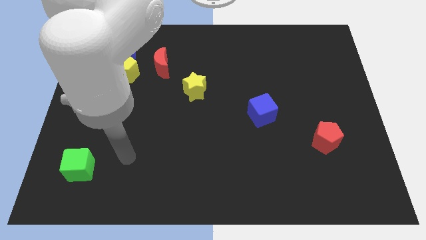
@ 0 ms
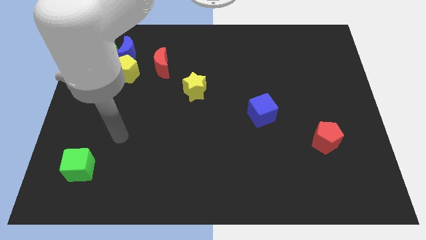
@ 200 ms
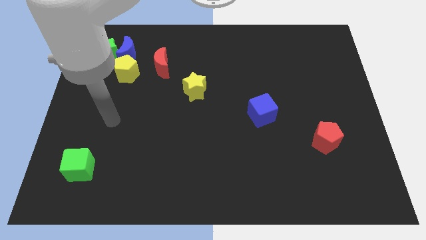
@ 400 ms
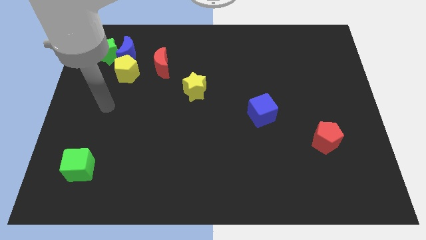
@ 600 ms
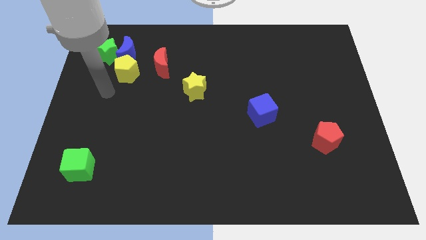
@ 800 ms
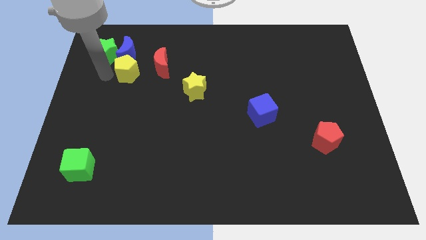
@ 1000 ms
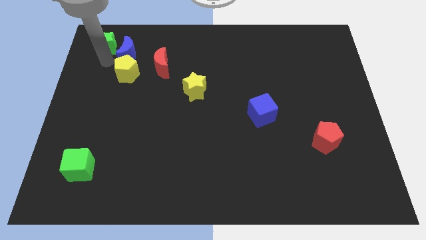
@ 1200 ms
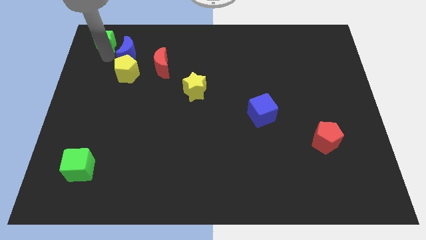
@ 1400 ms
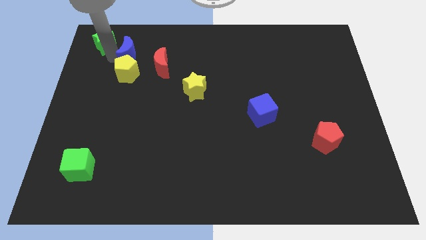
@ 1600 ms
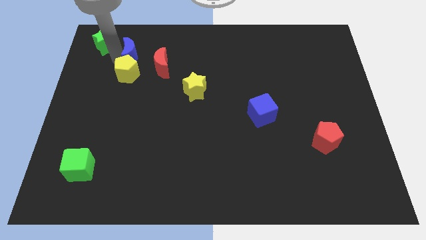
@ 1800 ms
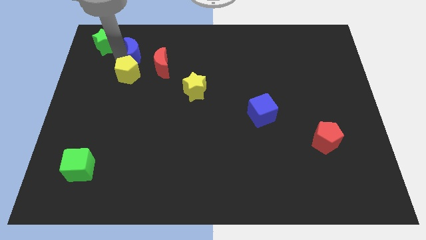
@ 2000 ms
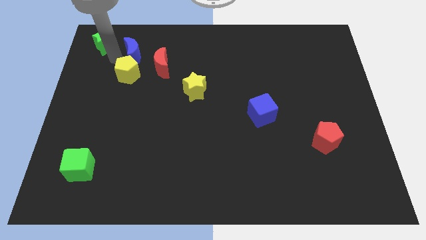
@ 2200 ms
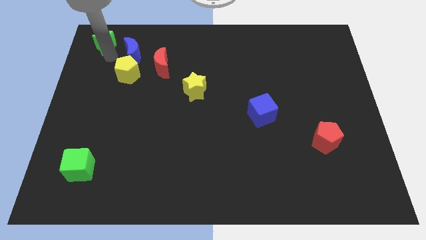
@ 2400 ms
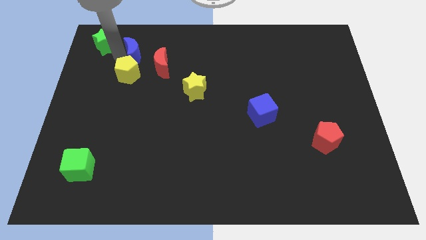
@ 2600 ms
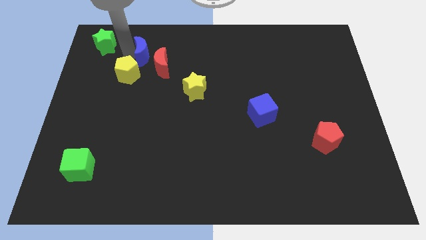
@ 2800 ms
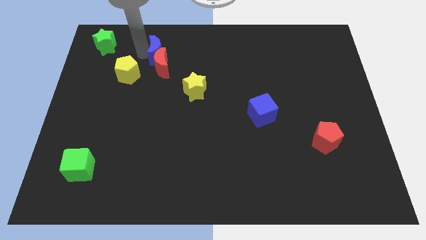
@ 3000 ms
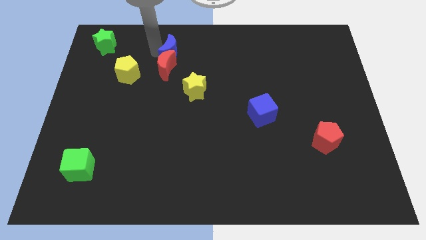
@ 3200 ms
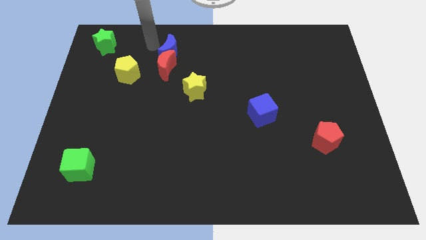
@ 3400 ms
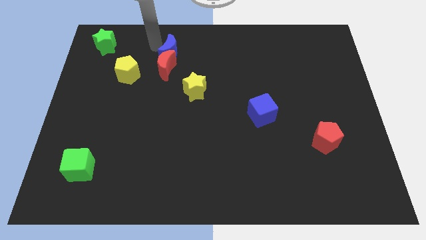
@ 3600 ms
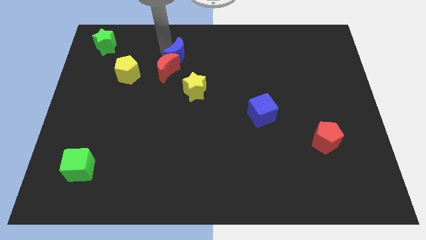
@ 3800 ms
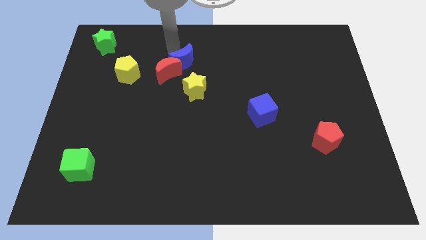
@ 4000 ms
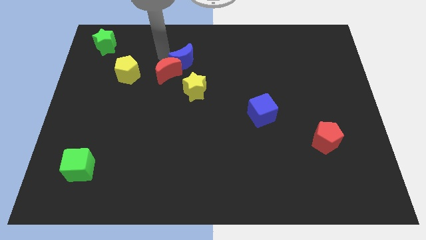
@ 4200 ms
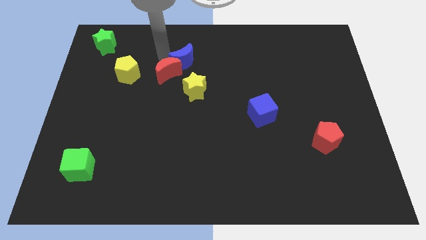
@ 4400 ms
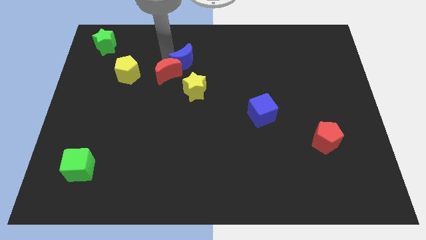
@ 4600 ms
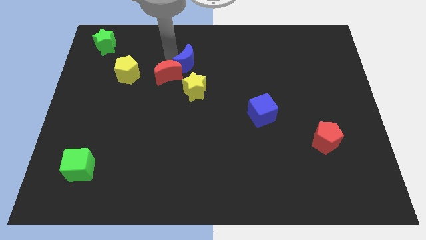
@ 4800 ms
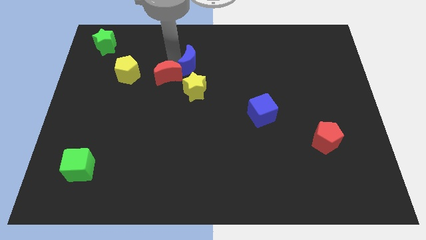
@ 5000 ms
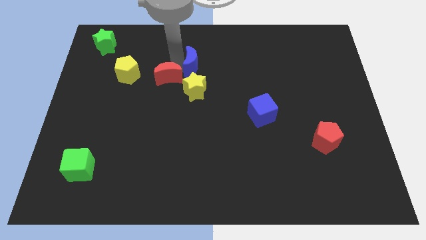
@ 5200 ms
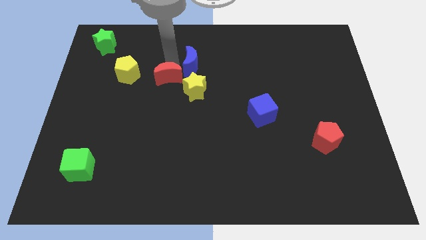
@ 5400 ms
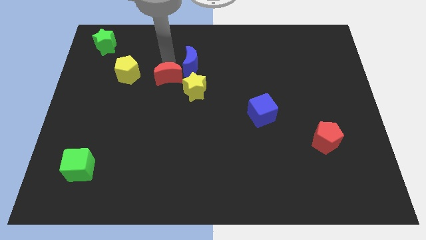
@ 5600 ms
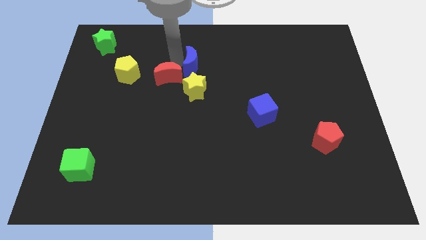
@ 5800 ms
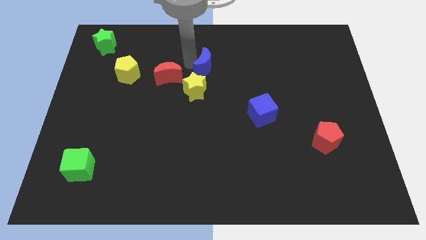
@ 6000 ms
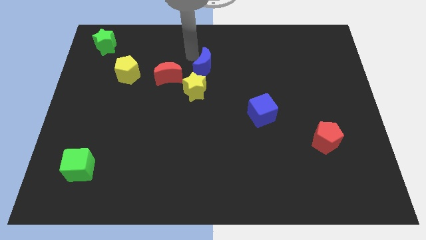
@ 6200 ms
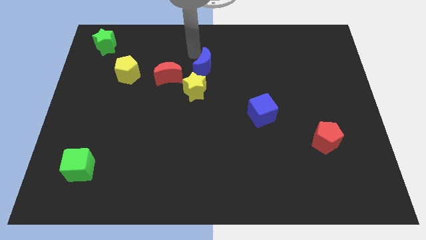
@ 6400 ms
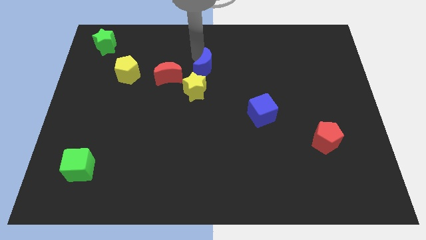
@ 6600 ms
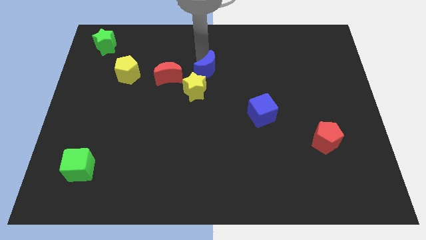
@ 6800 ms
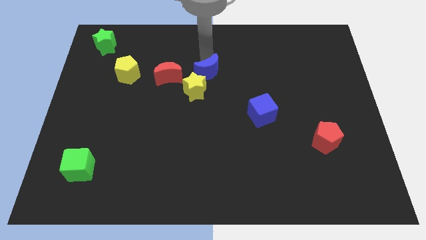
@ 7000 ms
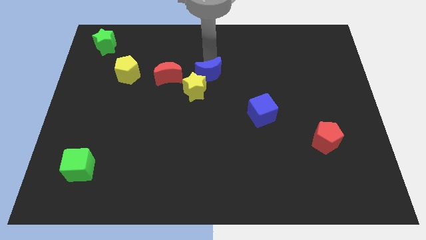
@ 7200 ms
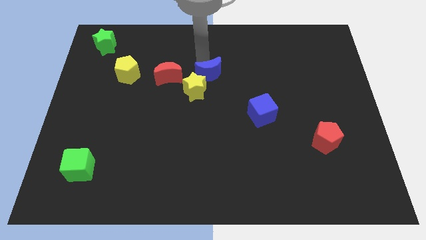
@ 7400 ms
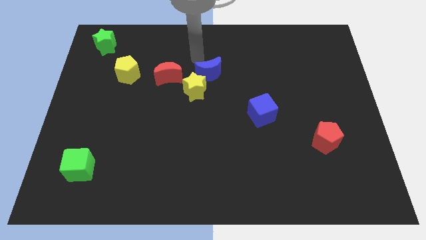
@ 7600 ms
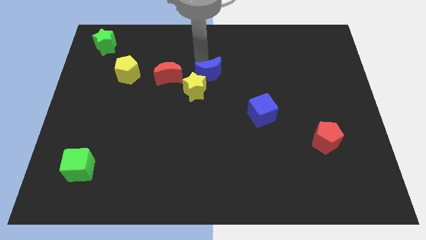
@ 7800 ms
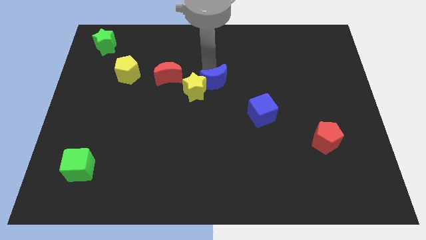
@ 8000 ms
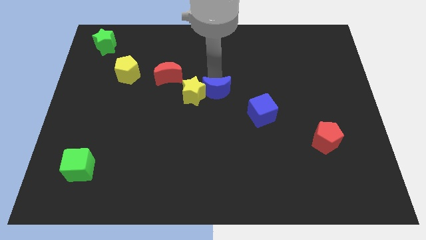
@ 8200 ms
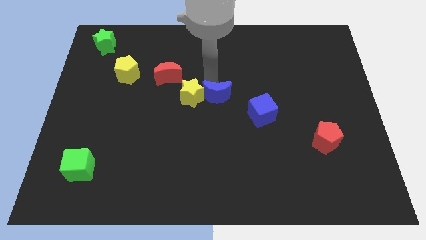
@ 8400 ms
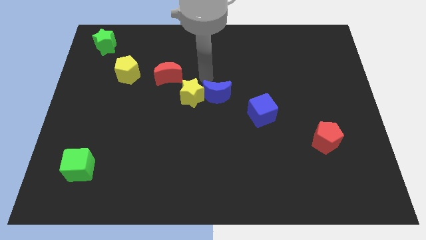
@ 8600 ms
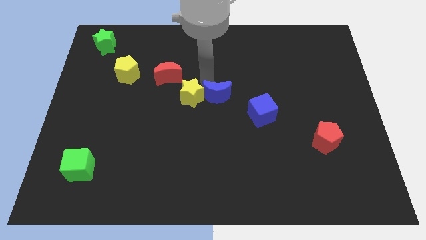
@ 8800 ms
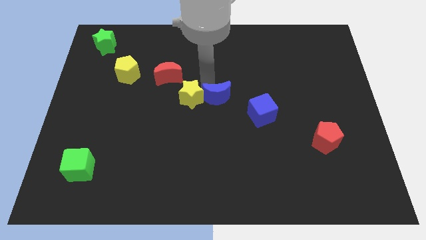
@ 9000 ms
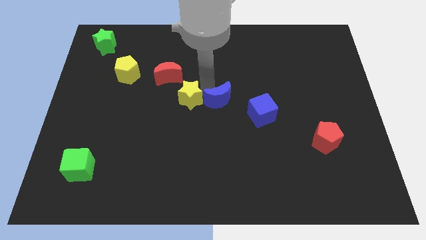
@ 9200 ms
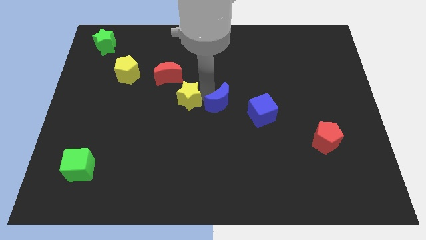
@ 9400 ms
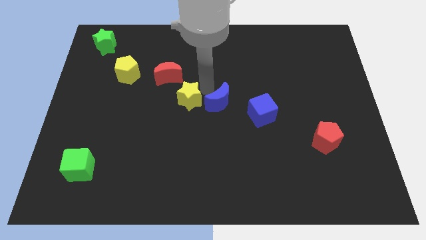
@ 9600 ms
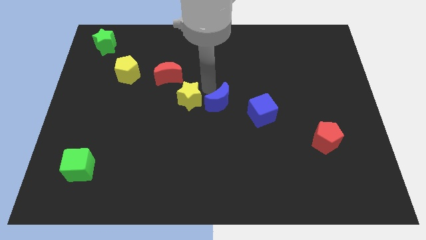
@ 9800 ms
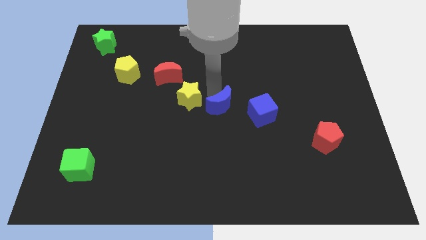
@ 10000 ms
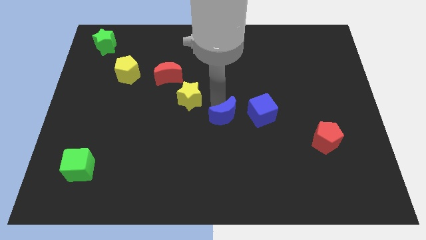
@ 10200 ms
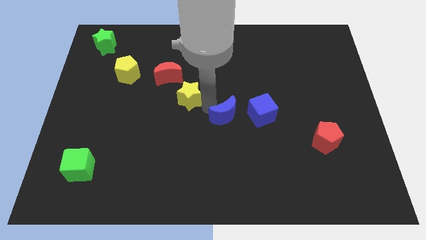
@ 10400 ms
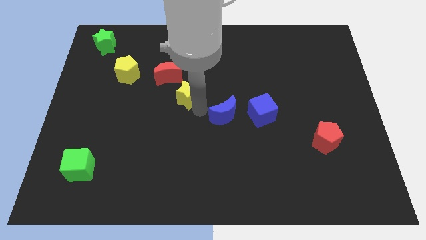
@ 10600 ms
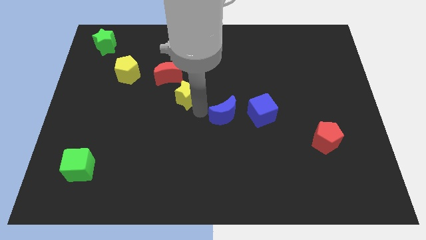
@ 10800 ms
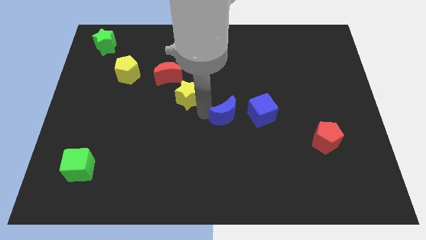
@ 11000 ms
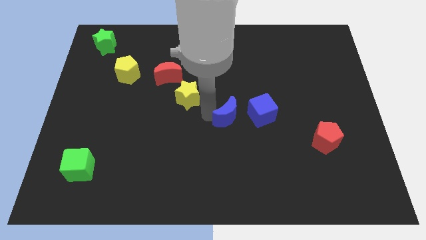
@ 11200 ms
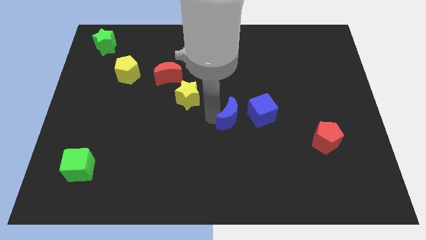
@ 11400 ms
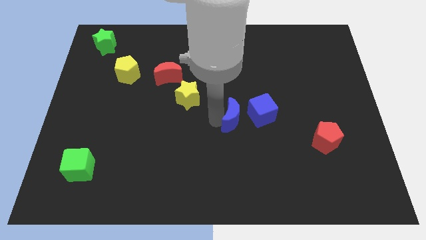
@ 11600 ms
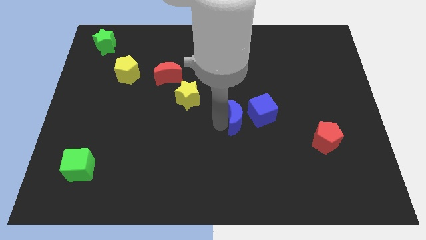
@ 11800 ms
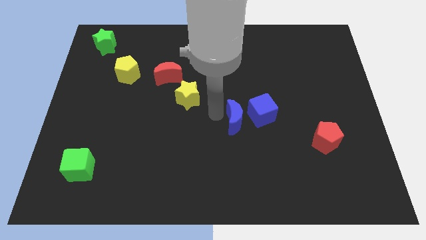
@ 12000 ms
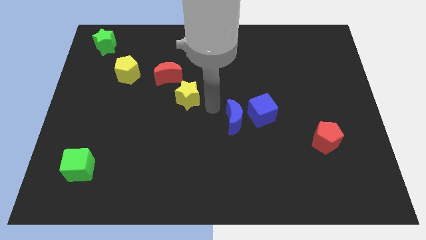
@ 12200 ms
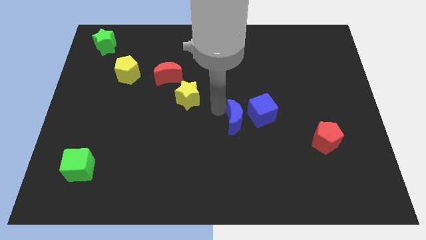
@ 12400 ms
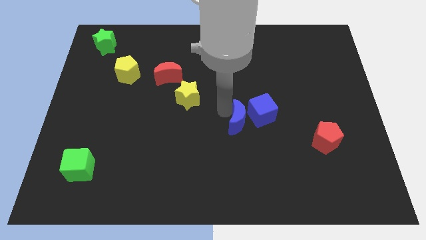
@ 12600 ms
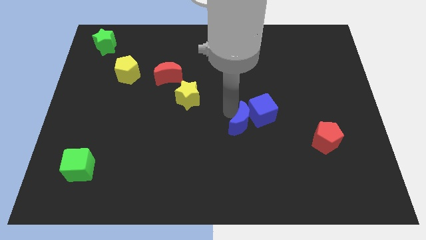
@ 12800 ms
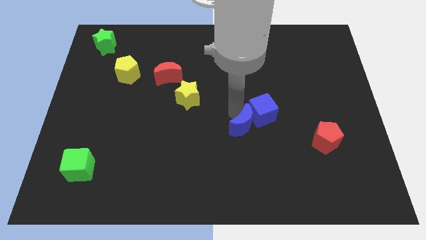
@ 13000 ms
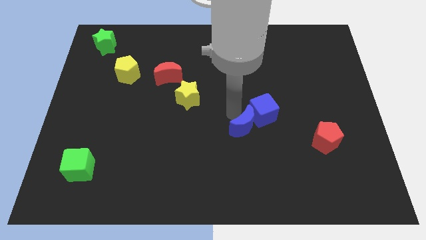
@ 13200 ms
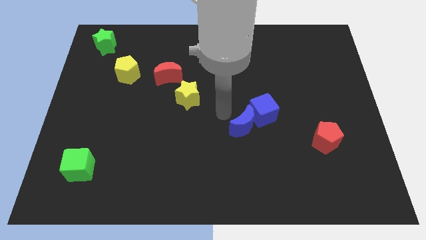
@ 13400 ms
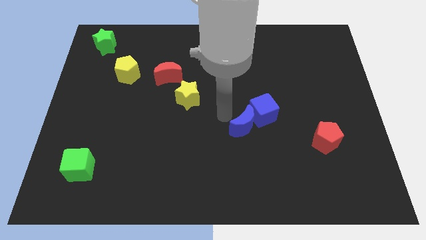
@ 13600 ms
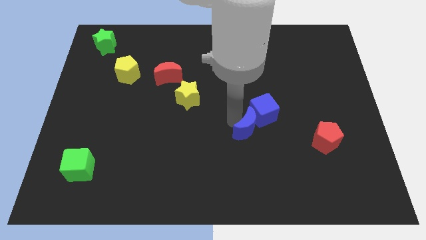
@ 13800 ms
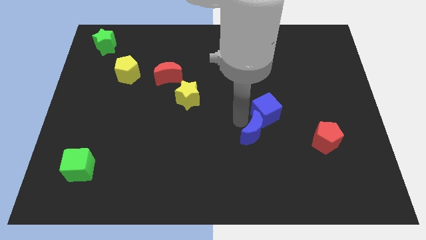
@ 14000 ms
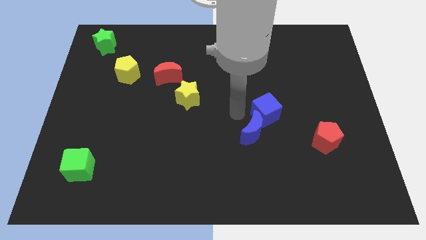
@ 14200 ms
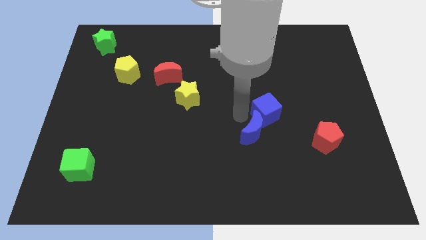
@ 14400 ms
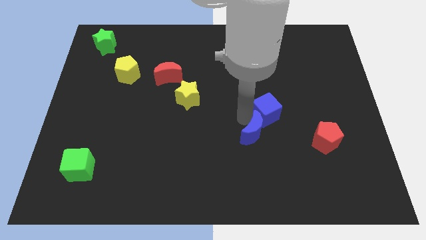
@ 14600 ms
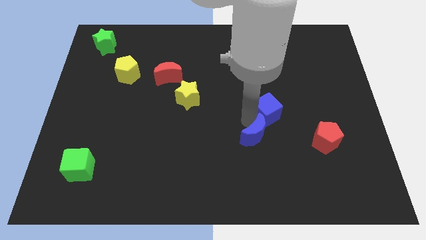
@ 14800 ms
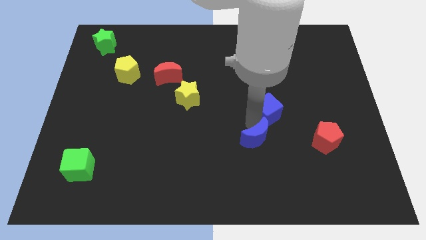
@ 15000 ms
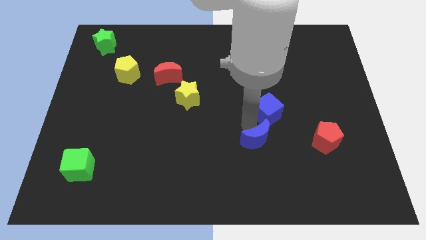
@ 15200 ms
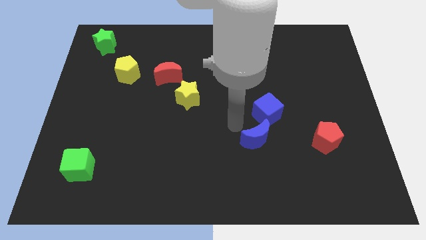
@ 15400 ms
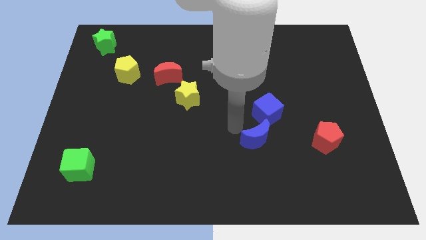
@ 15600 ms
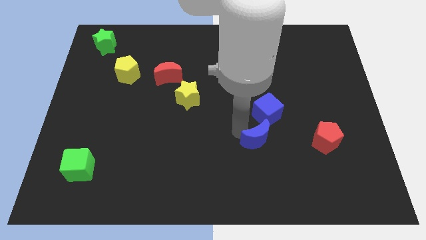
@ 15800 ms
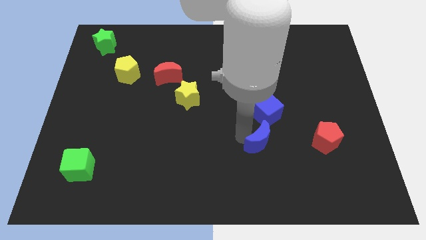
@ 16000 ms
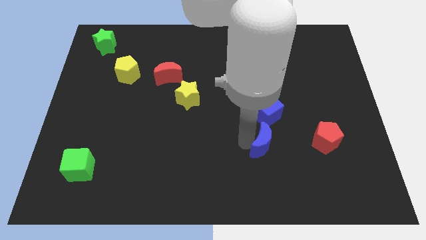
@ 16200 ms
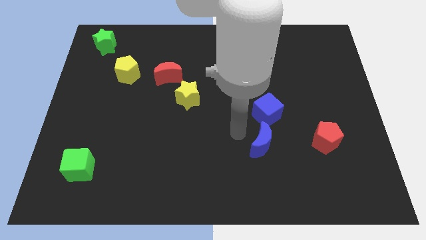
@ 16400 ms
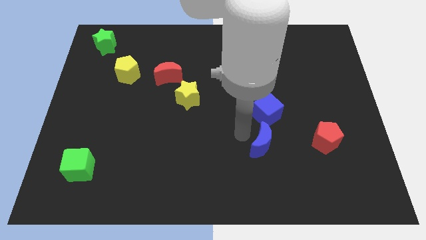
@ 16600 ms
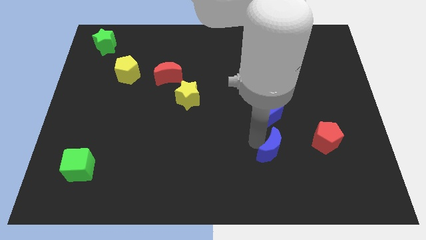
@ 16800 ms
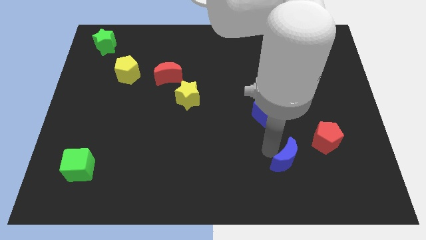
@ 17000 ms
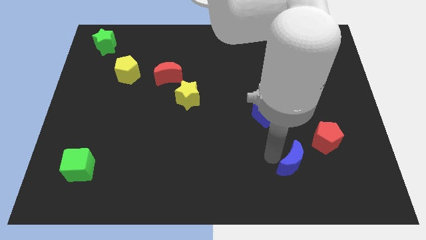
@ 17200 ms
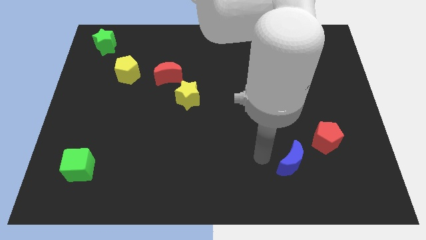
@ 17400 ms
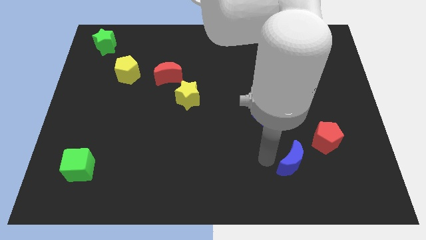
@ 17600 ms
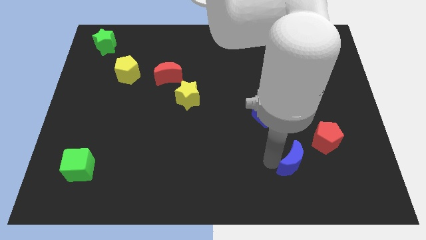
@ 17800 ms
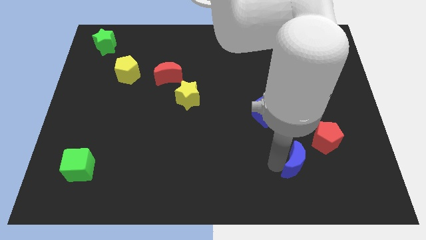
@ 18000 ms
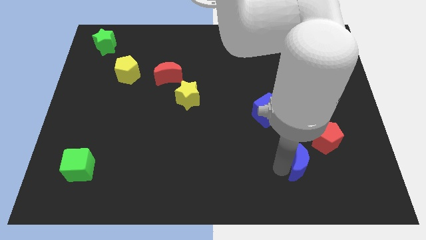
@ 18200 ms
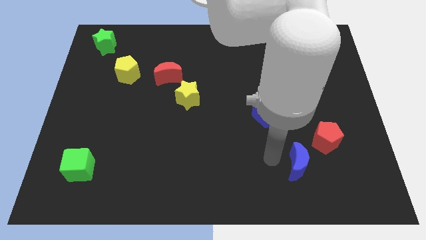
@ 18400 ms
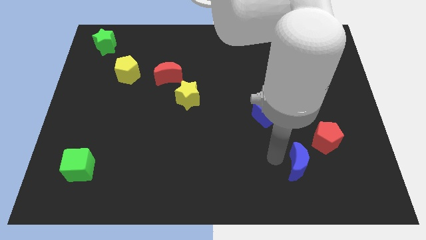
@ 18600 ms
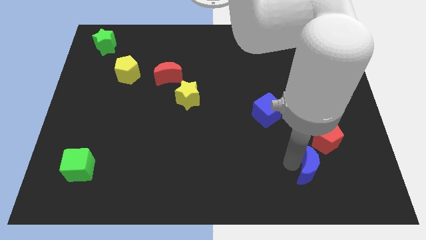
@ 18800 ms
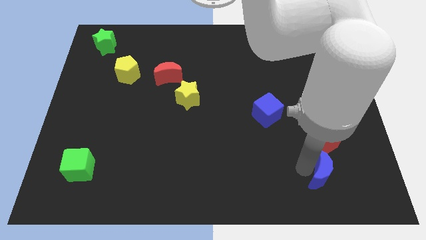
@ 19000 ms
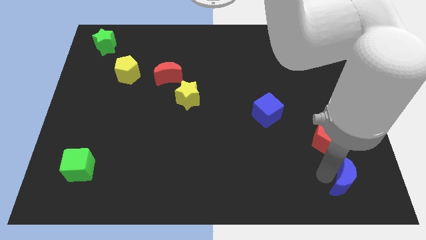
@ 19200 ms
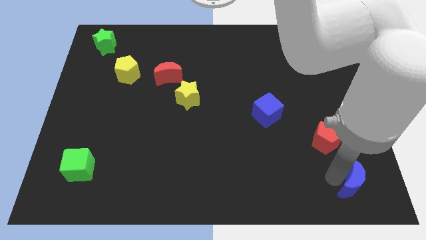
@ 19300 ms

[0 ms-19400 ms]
push the blue moon to the bottom right
